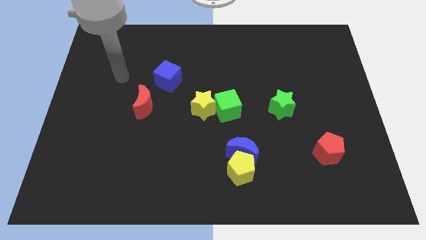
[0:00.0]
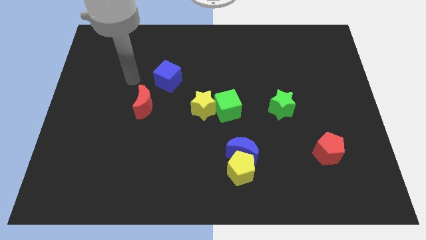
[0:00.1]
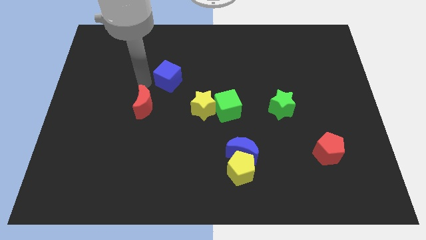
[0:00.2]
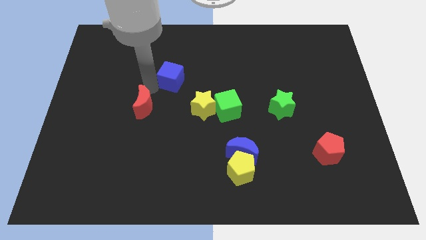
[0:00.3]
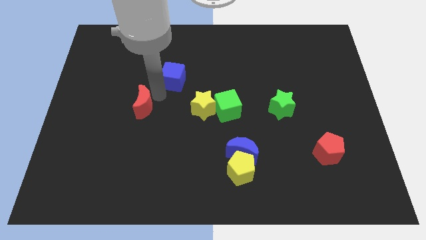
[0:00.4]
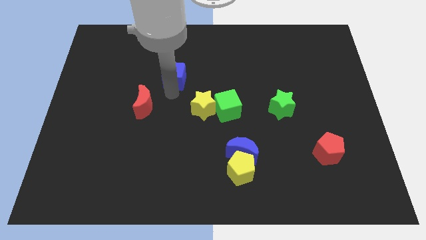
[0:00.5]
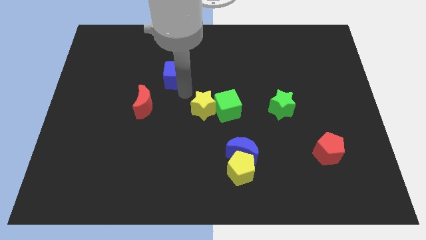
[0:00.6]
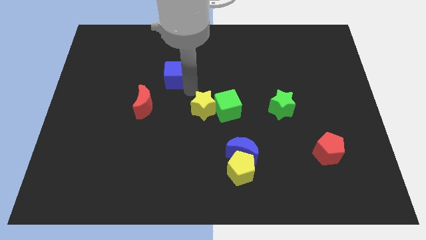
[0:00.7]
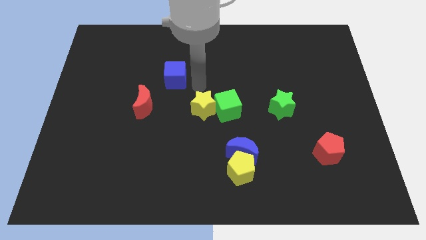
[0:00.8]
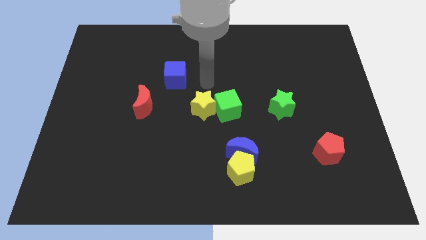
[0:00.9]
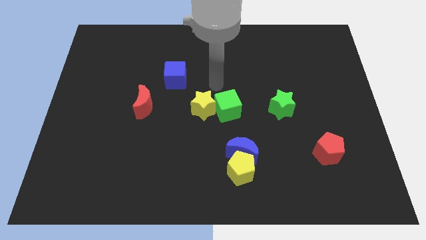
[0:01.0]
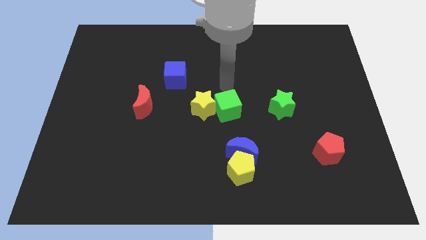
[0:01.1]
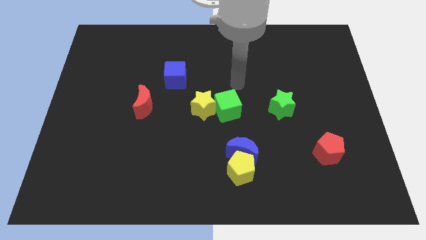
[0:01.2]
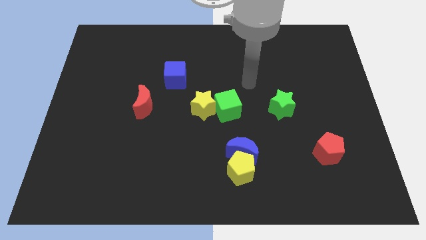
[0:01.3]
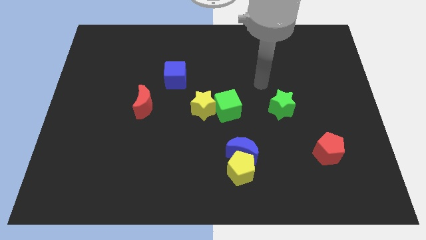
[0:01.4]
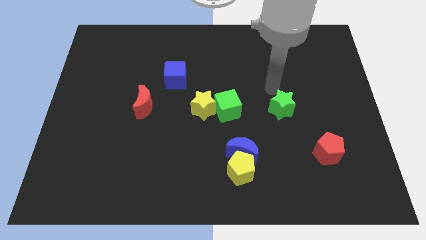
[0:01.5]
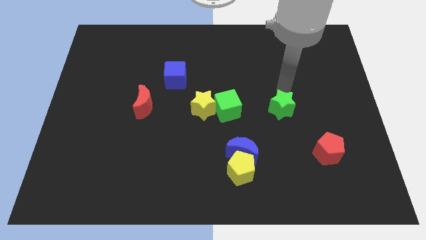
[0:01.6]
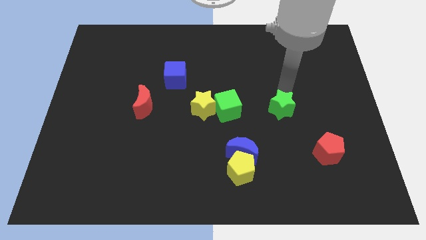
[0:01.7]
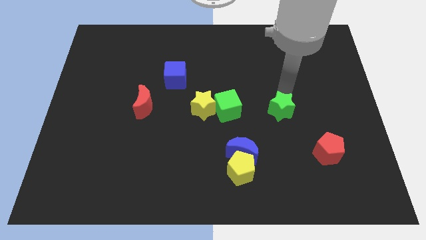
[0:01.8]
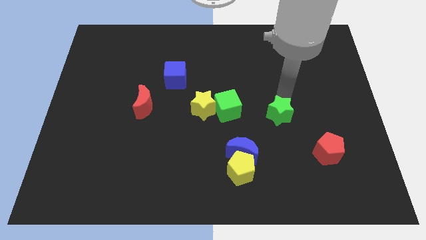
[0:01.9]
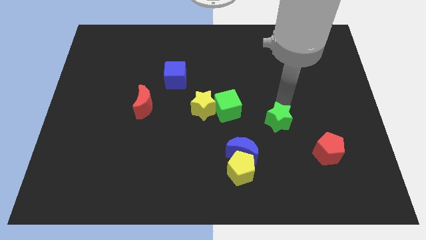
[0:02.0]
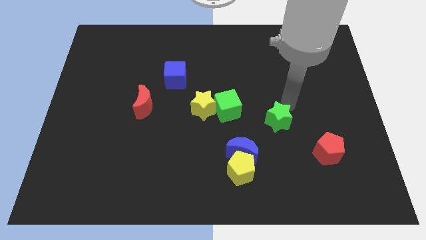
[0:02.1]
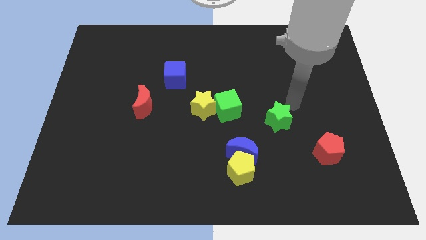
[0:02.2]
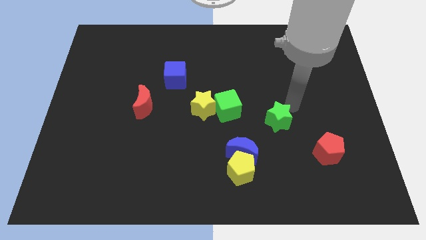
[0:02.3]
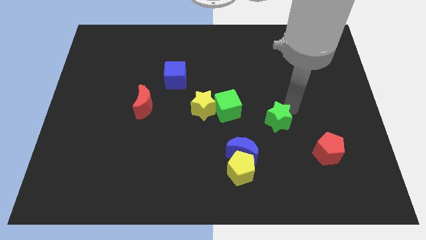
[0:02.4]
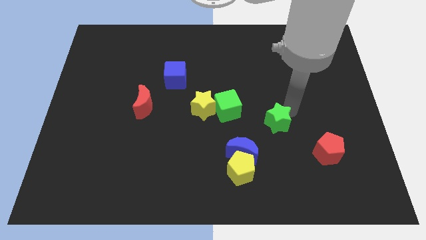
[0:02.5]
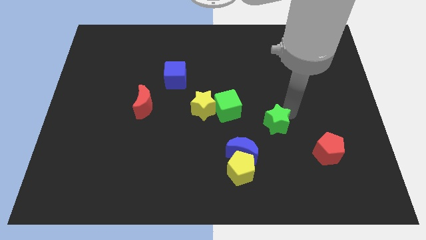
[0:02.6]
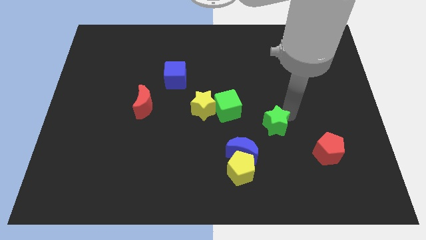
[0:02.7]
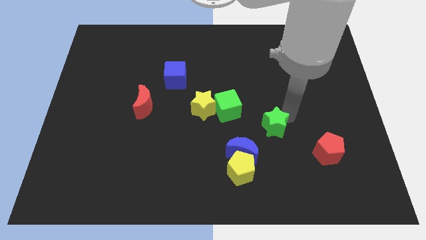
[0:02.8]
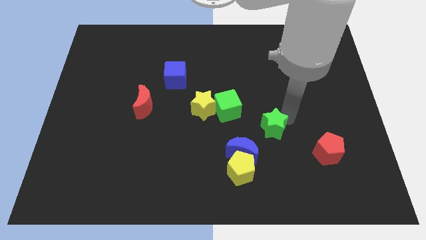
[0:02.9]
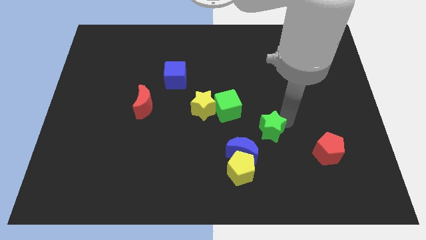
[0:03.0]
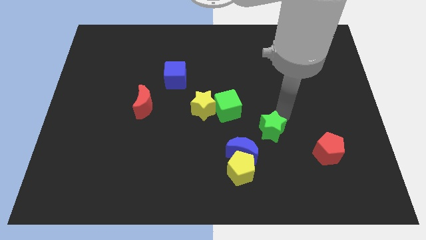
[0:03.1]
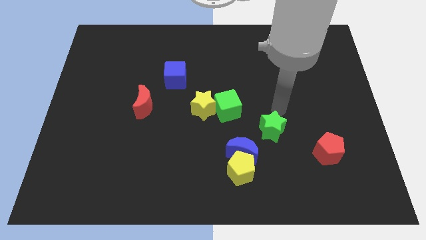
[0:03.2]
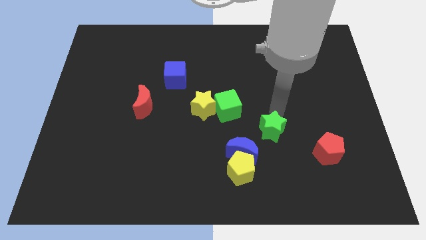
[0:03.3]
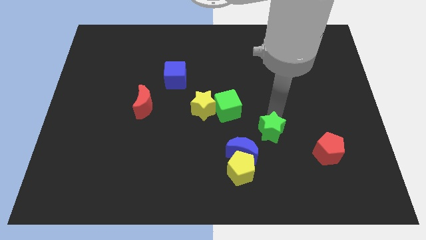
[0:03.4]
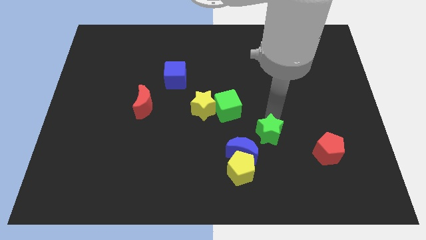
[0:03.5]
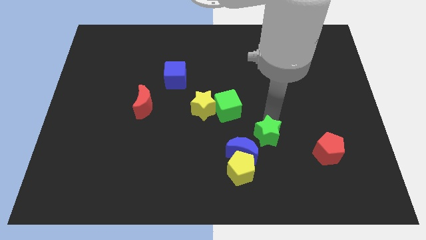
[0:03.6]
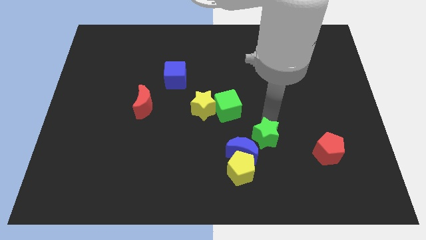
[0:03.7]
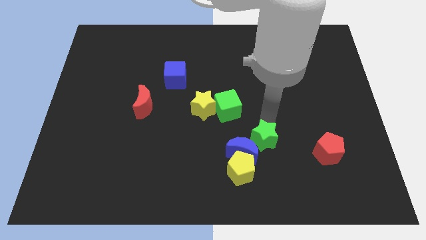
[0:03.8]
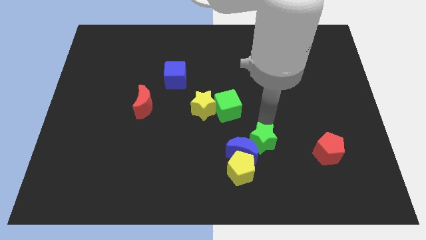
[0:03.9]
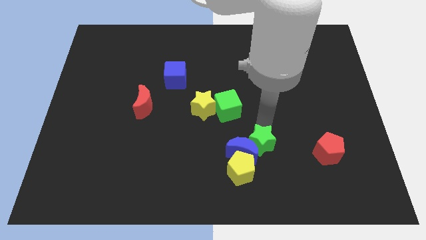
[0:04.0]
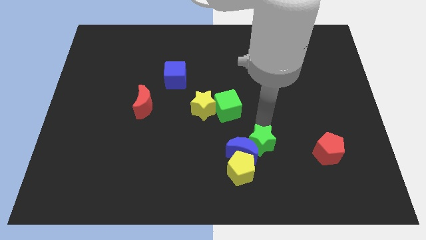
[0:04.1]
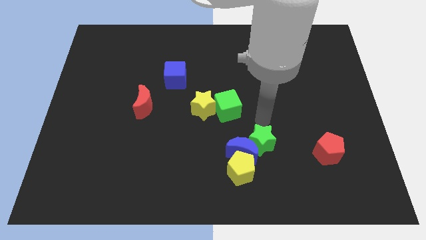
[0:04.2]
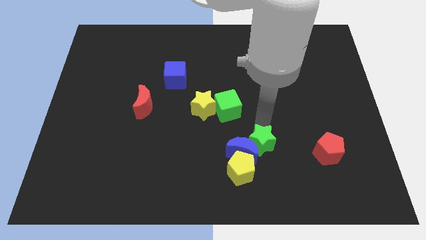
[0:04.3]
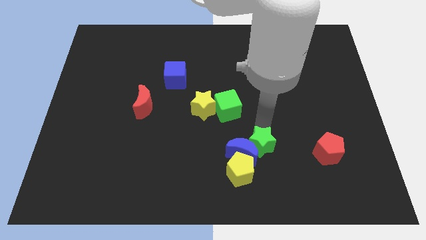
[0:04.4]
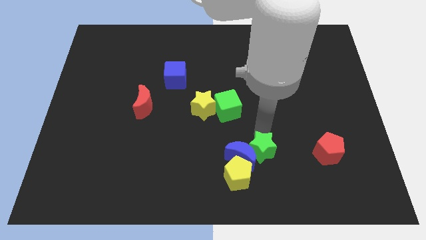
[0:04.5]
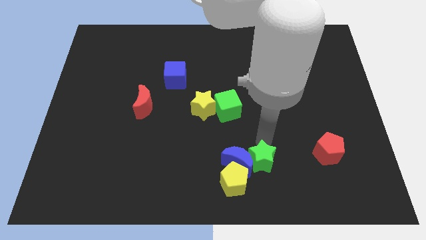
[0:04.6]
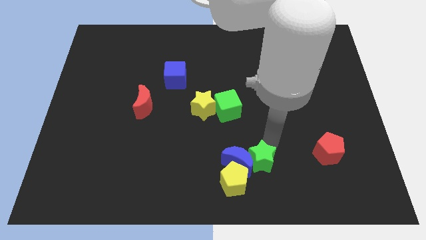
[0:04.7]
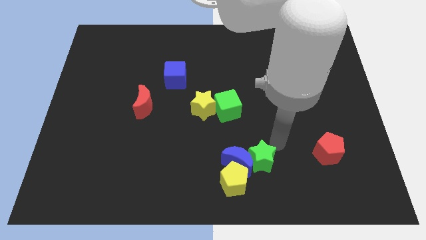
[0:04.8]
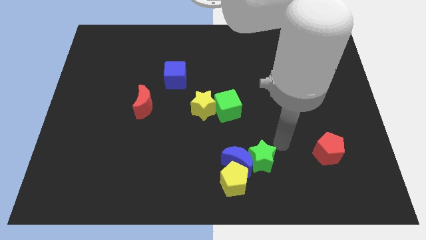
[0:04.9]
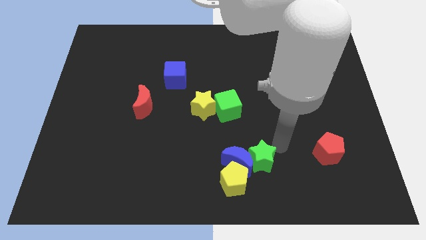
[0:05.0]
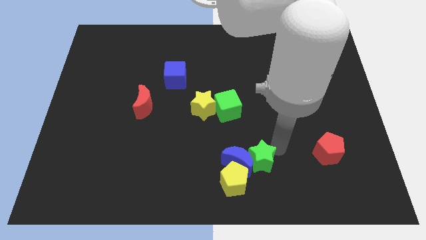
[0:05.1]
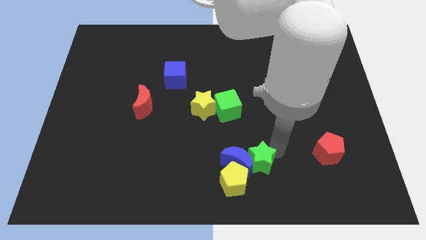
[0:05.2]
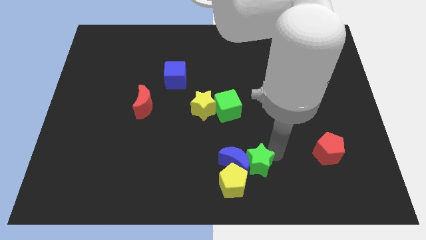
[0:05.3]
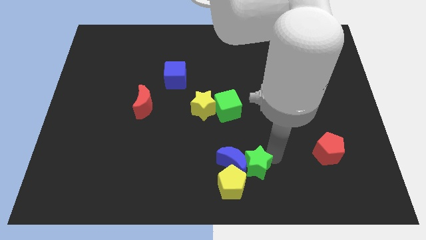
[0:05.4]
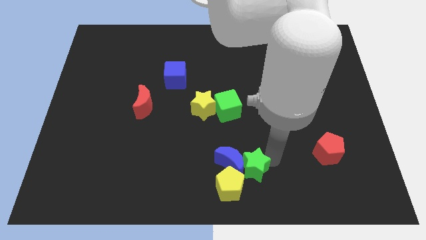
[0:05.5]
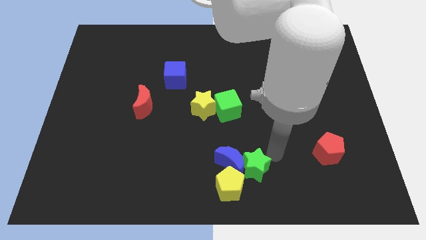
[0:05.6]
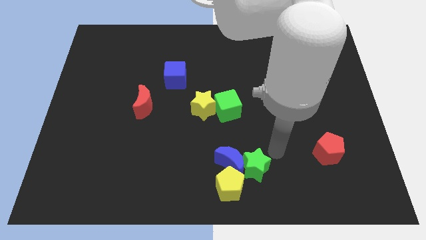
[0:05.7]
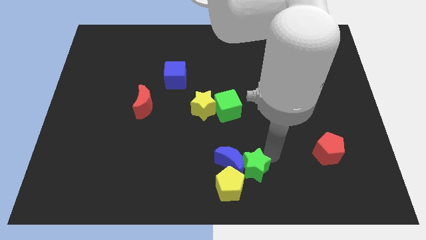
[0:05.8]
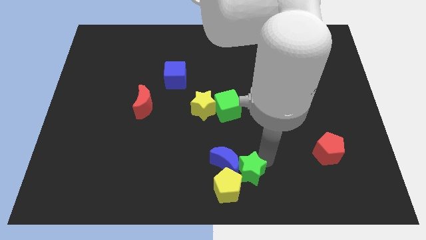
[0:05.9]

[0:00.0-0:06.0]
move the green star to the yellow pentagon
